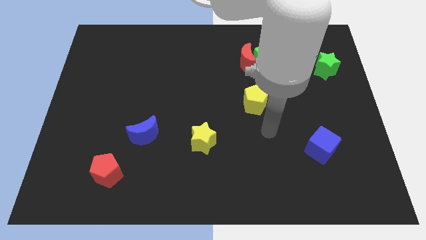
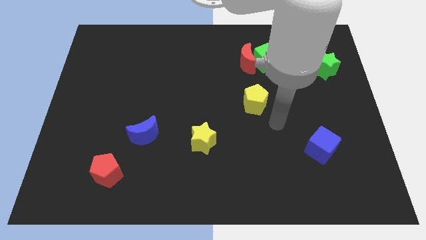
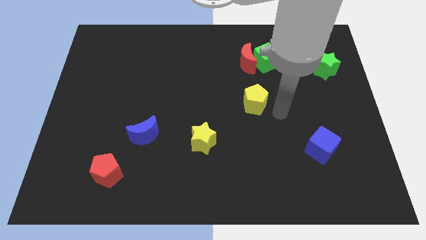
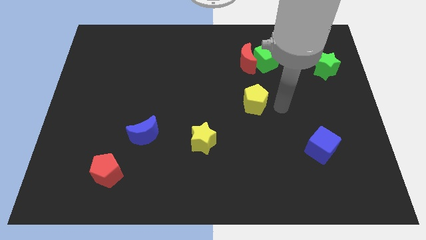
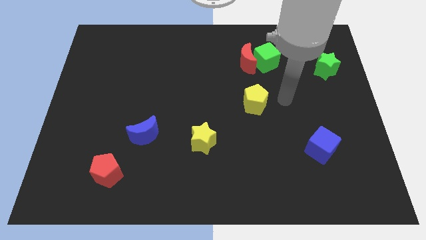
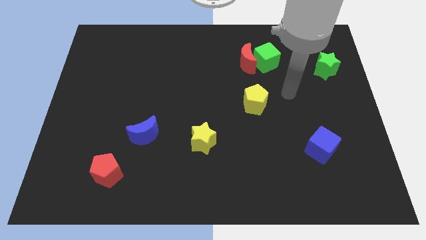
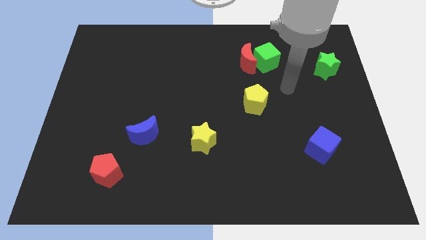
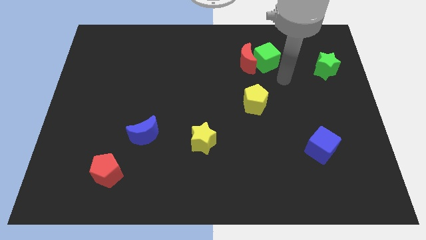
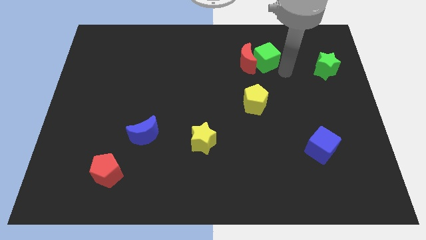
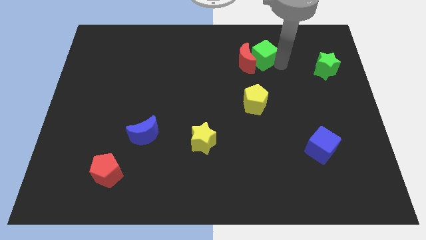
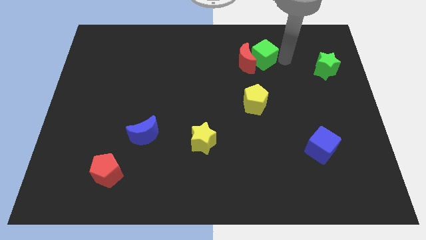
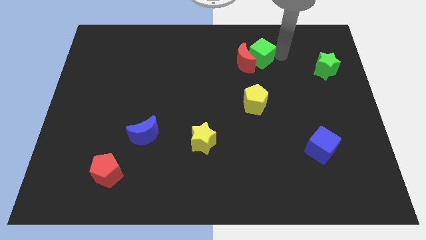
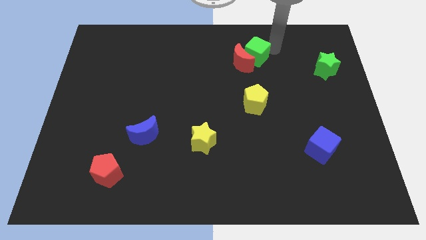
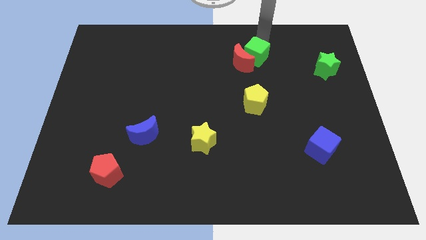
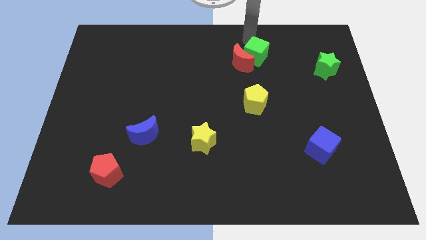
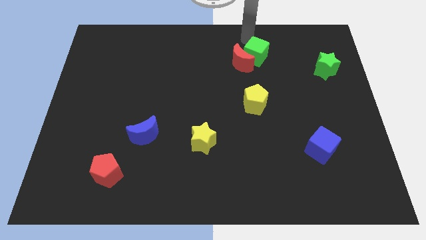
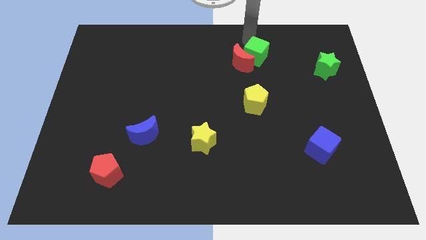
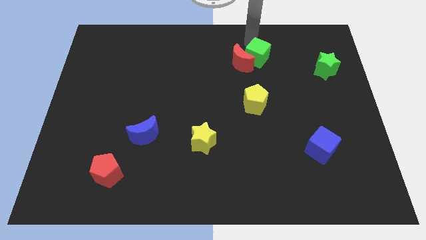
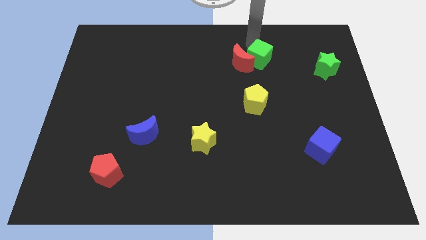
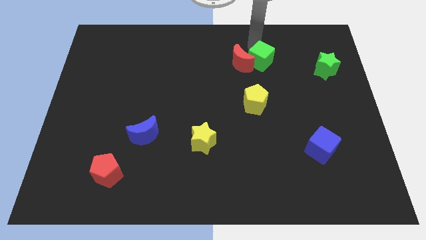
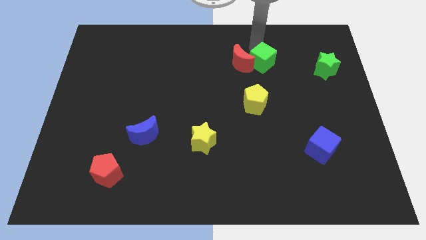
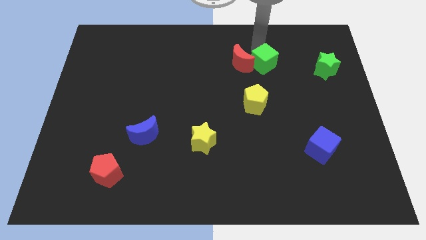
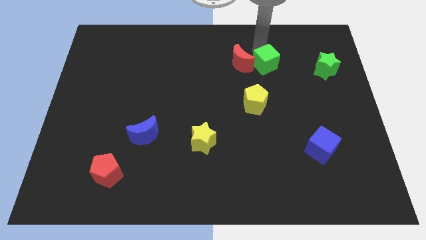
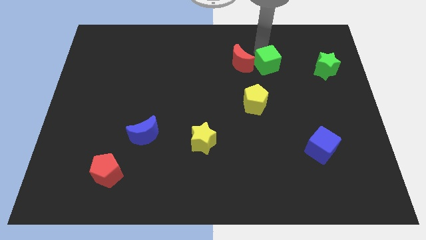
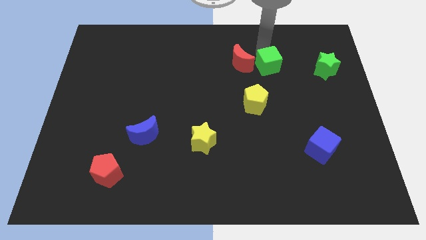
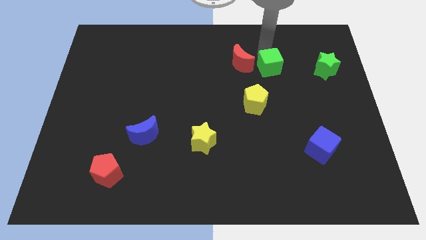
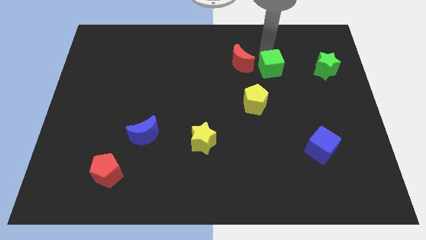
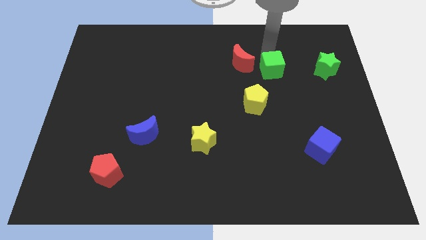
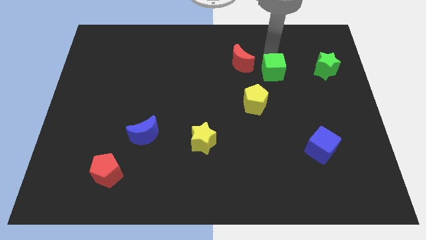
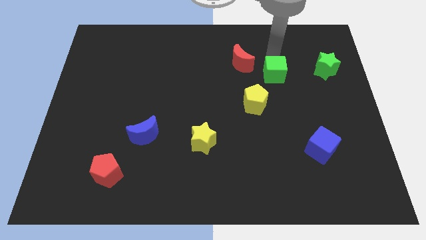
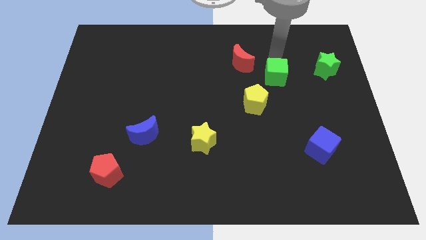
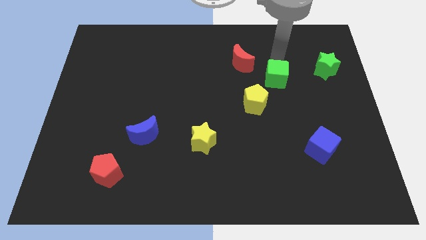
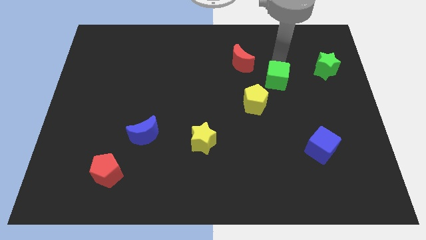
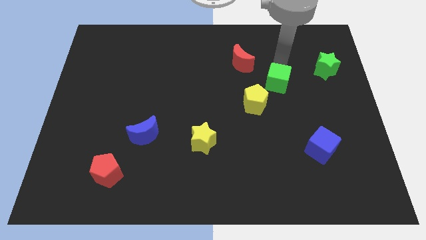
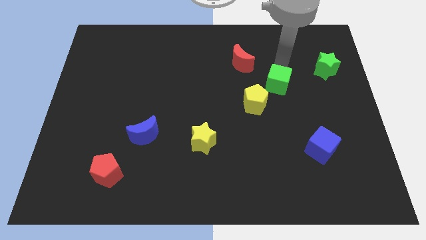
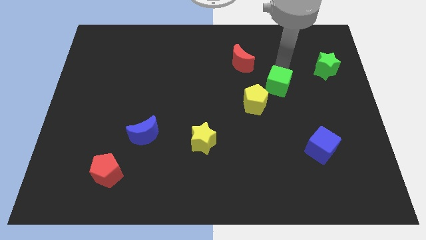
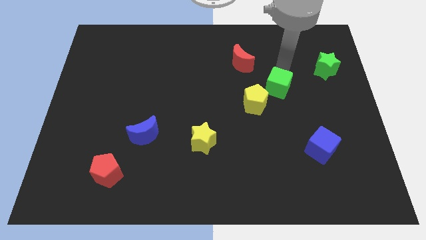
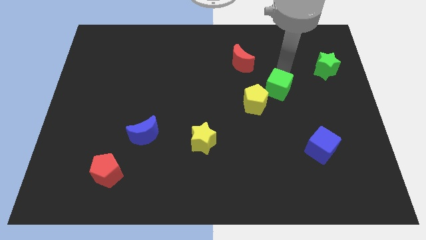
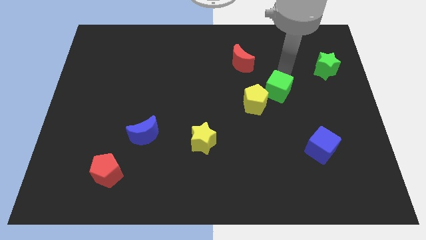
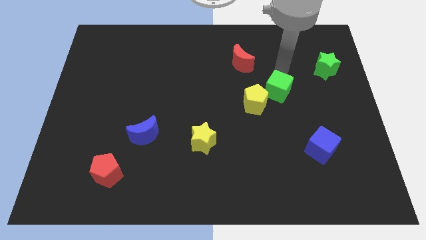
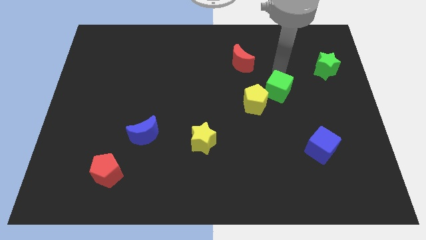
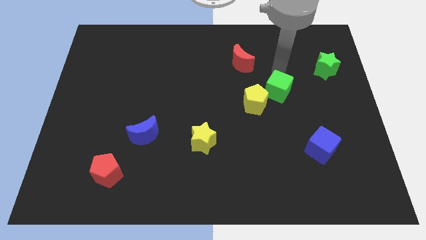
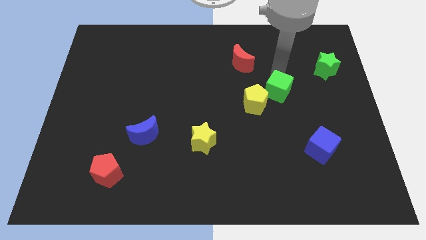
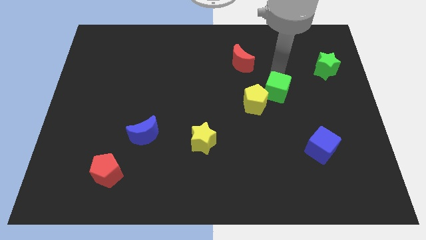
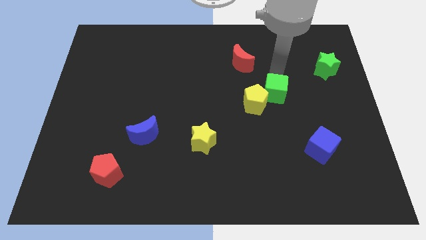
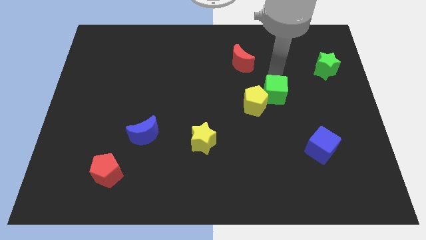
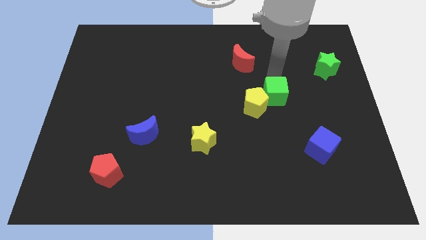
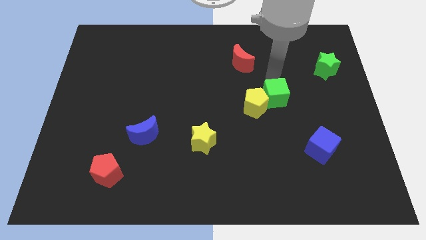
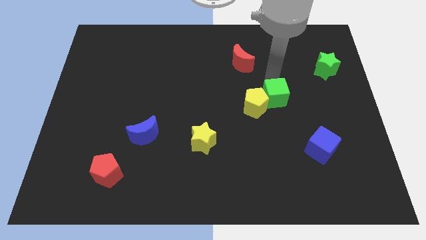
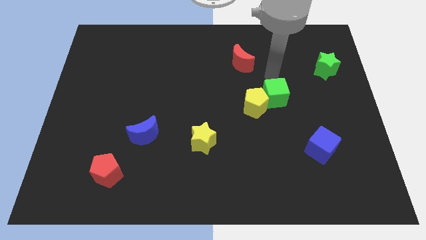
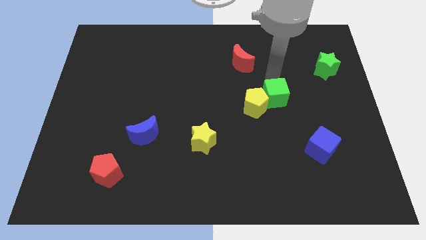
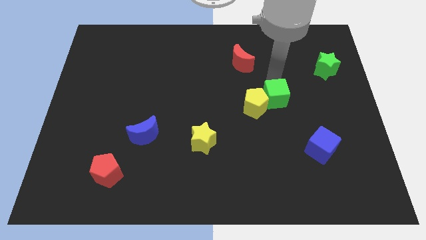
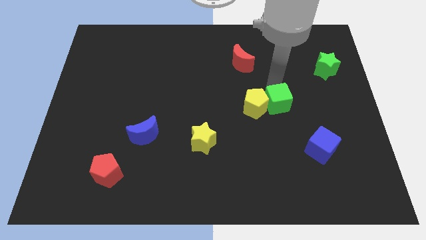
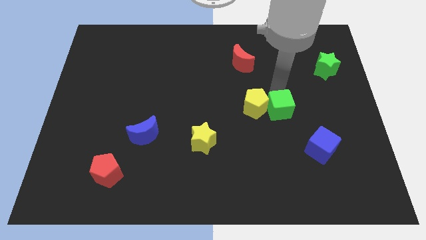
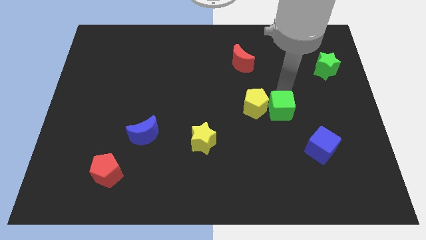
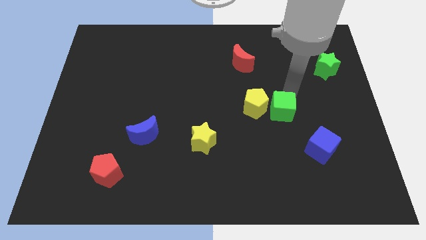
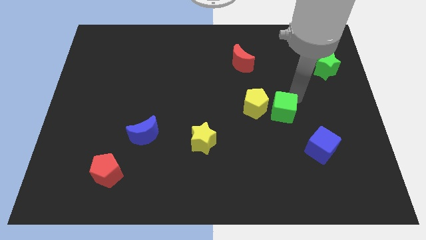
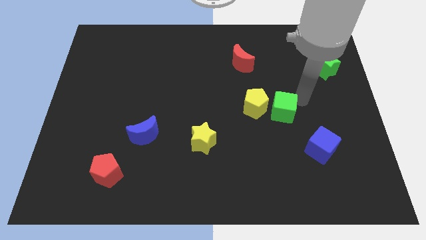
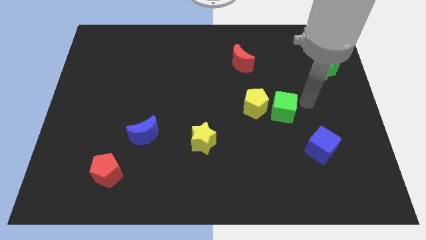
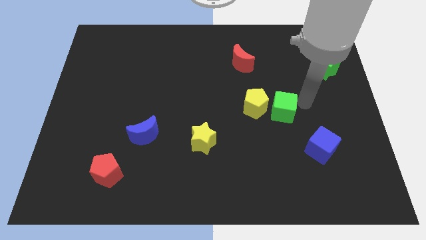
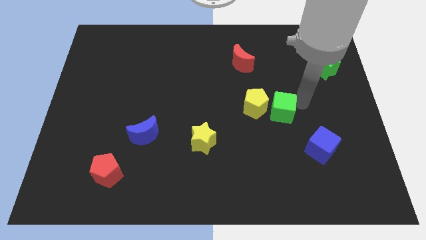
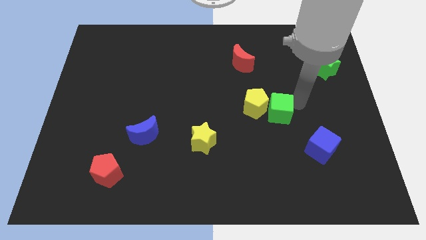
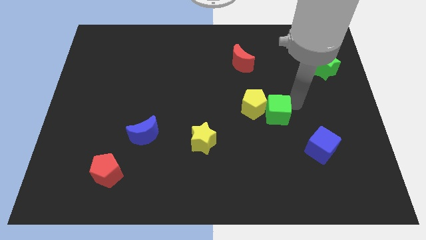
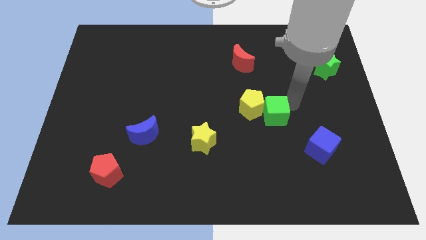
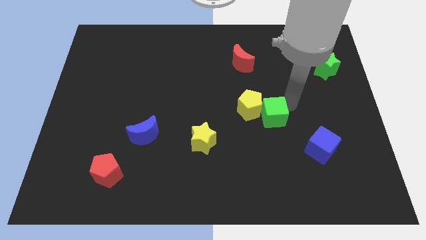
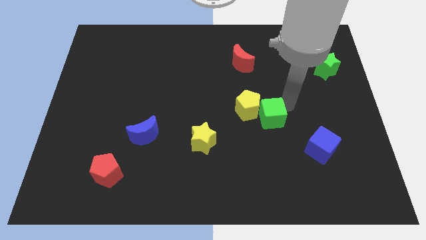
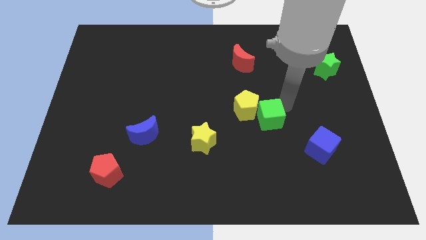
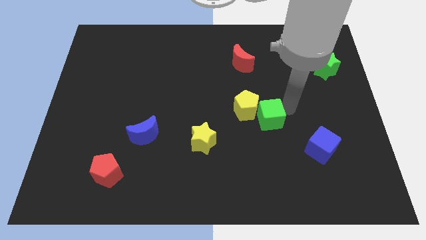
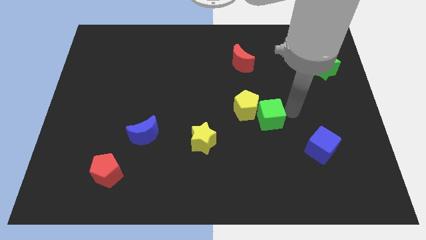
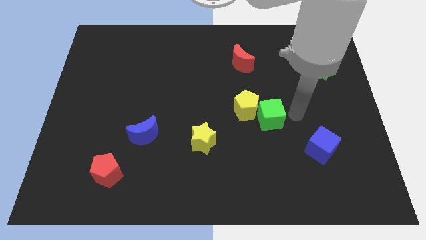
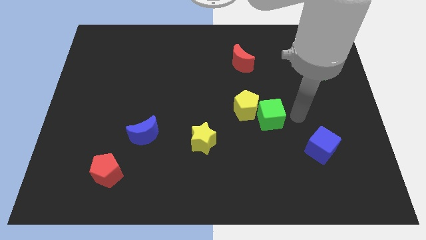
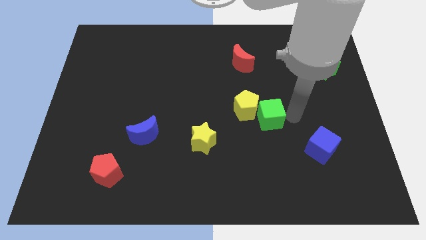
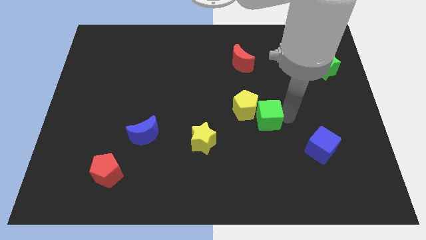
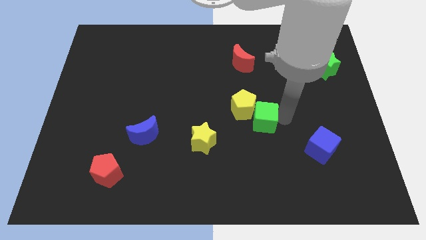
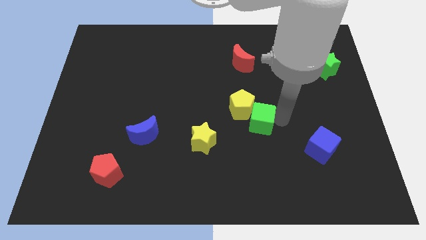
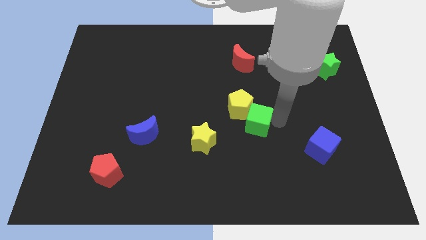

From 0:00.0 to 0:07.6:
put the green cube to the right side of the yellow star
